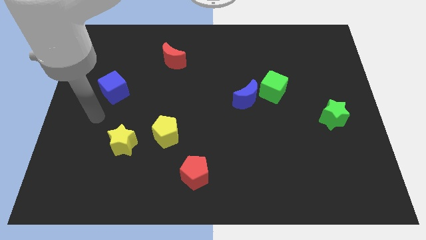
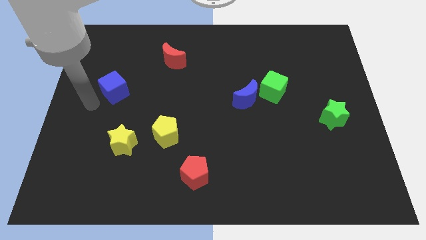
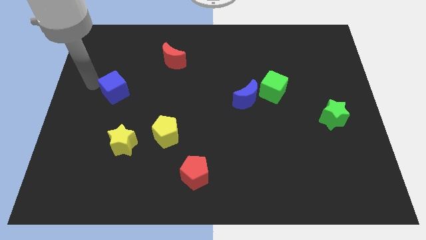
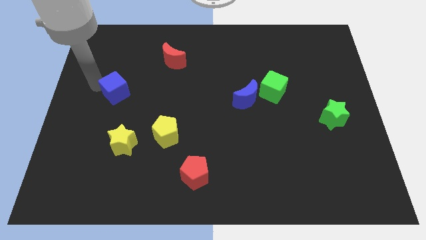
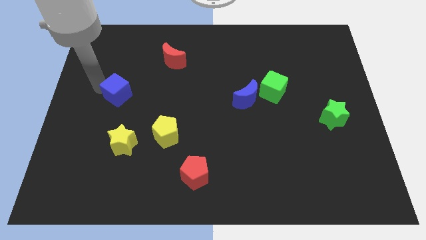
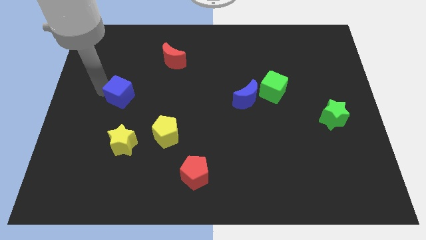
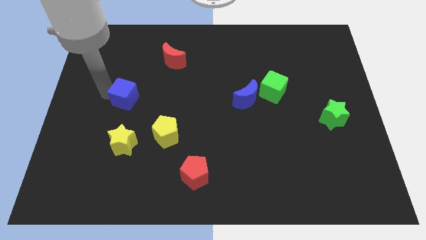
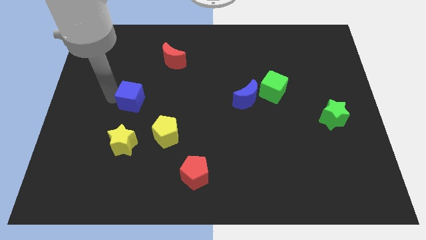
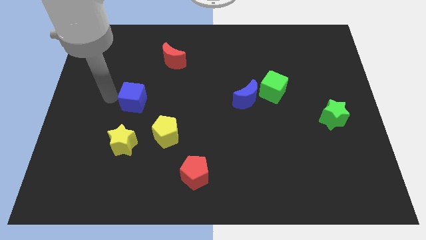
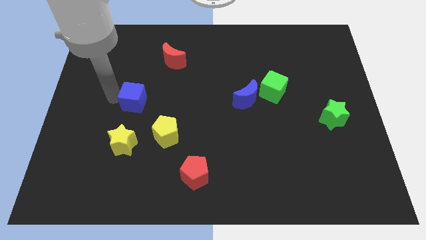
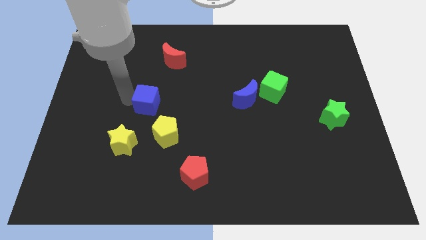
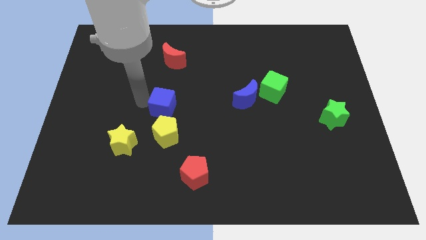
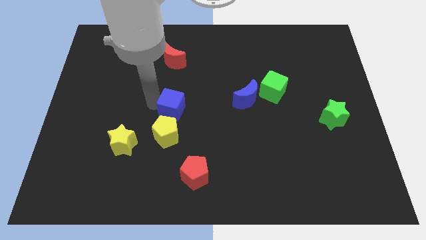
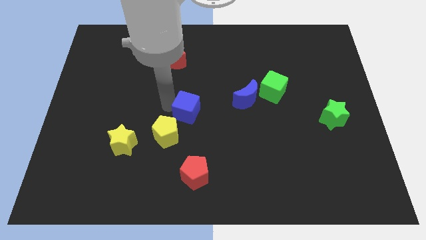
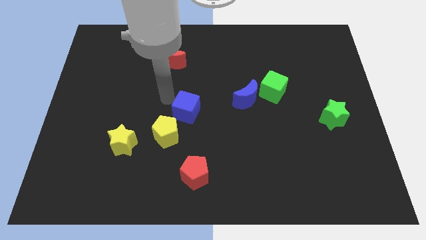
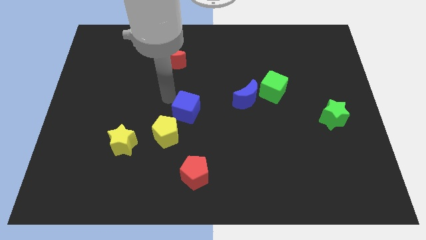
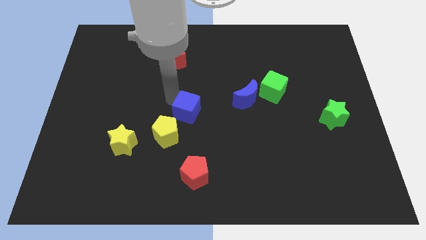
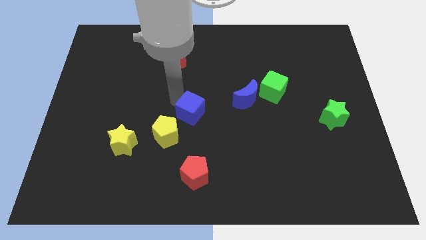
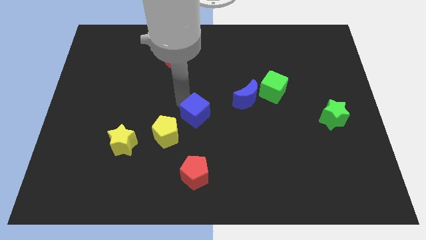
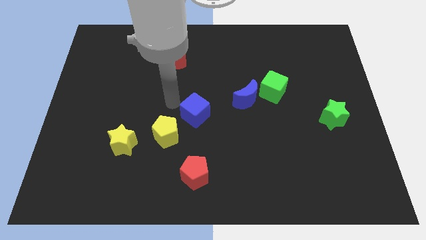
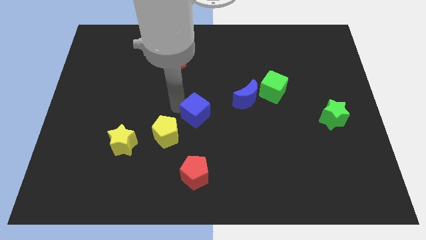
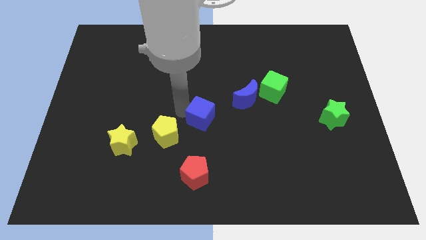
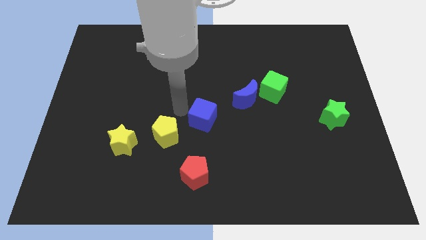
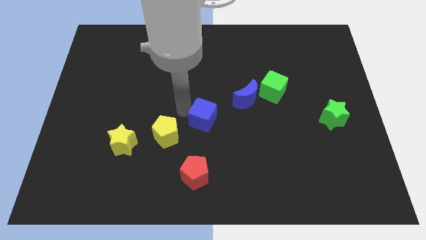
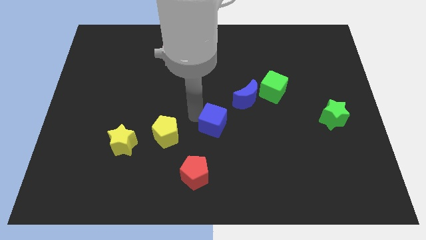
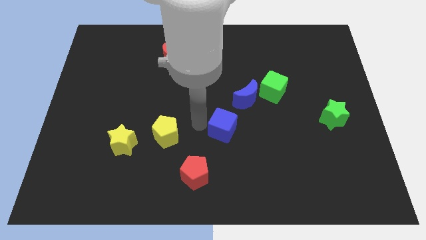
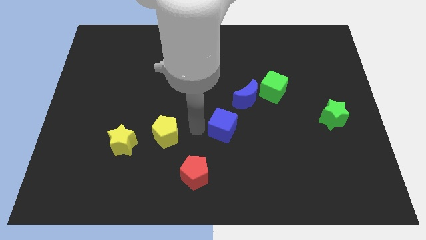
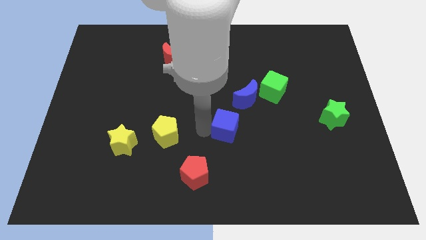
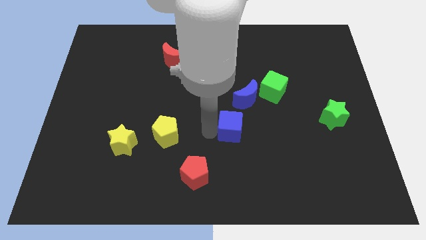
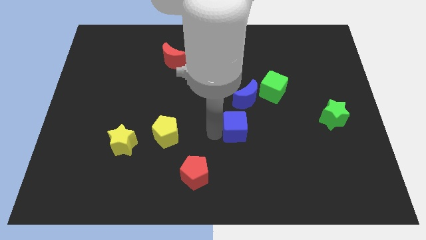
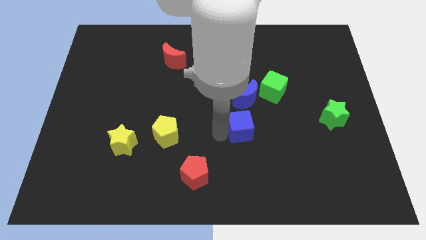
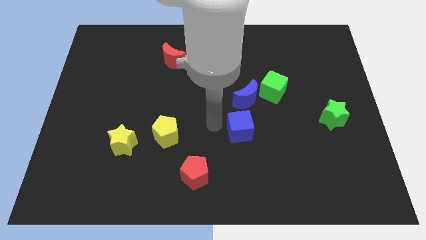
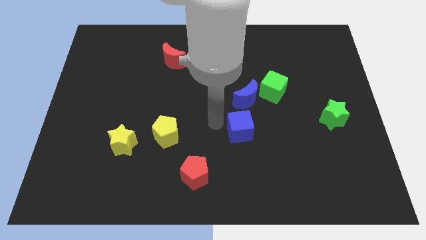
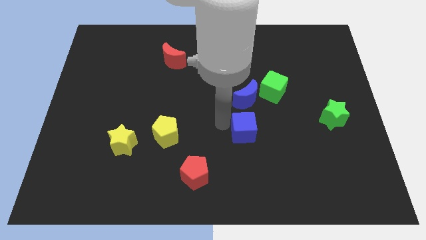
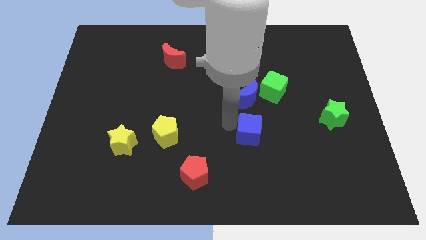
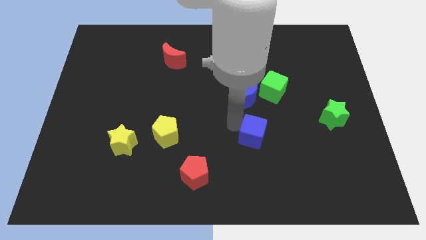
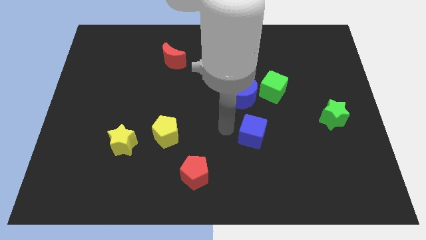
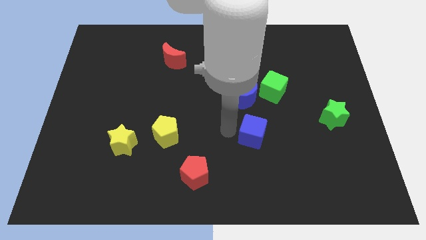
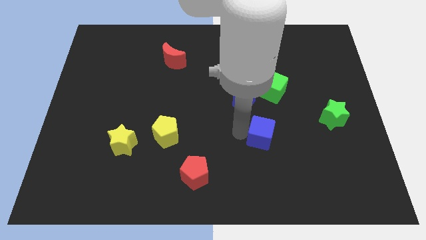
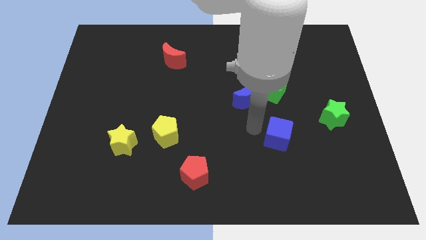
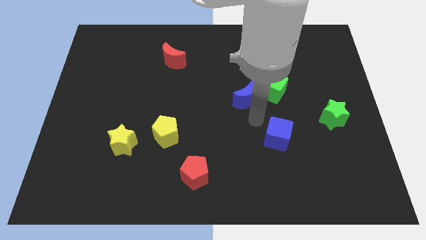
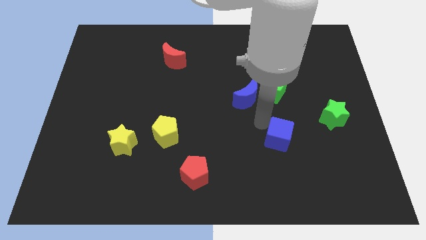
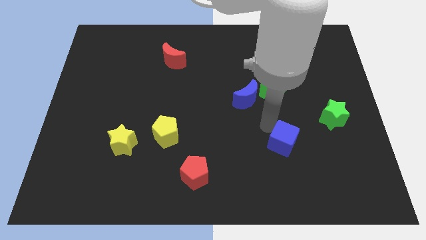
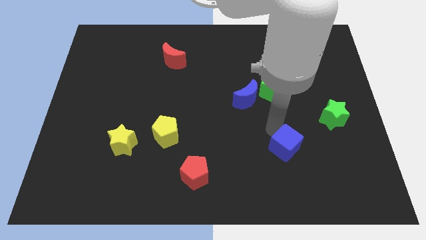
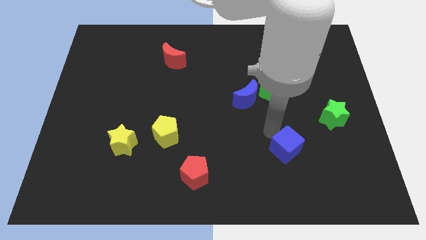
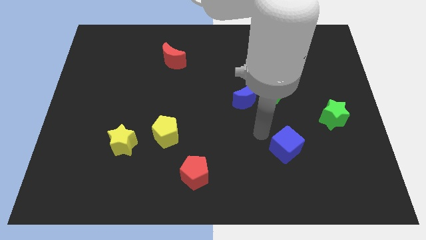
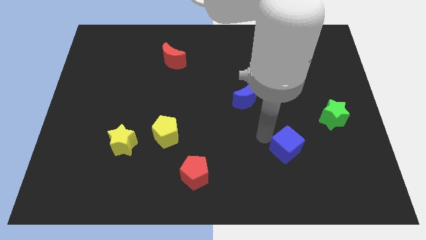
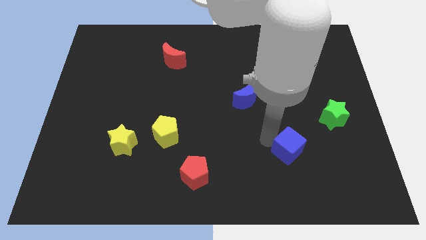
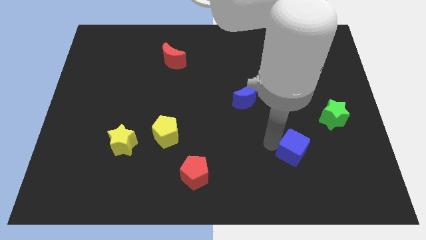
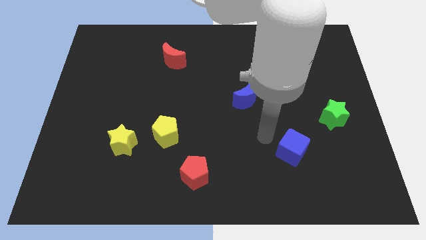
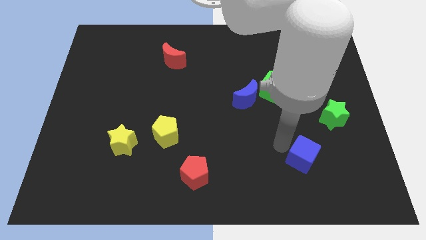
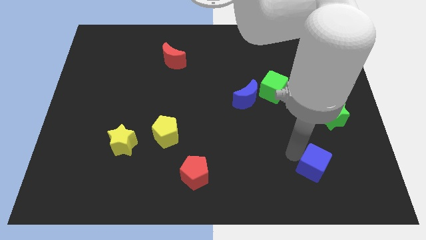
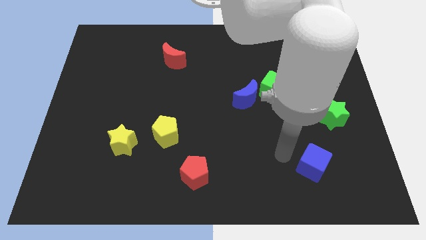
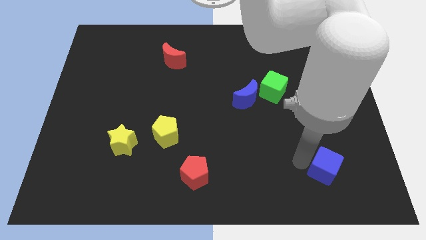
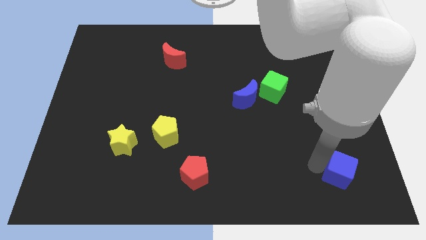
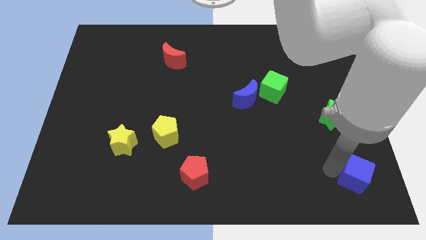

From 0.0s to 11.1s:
push the blue cube to the bottom right of the board

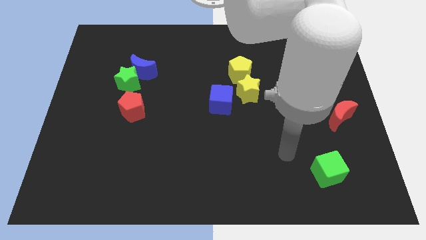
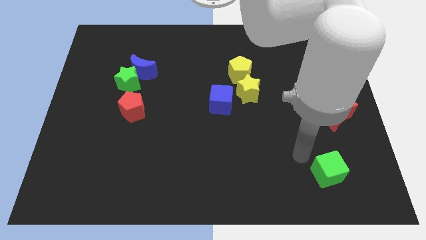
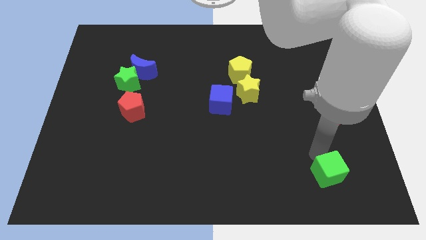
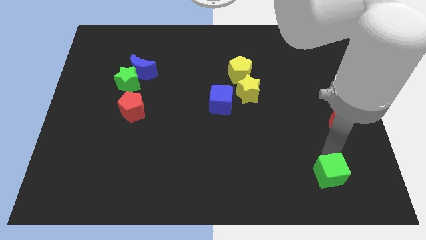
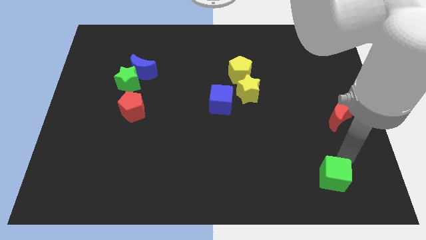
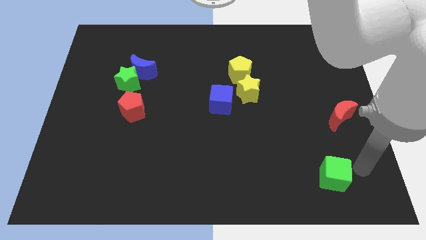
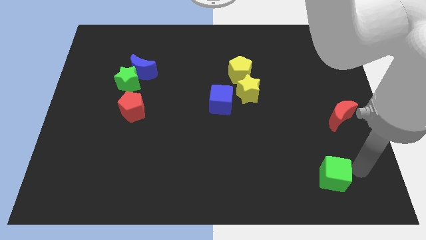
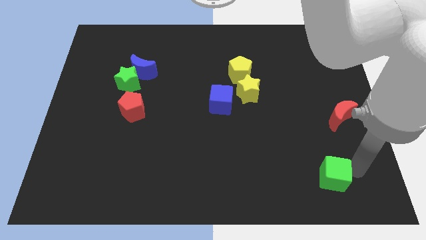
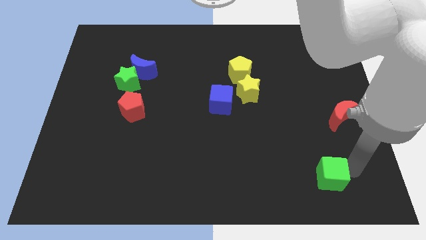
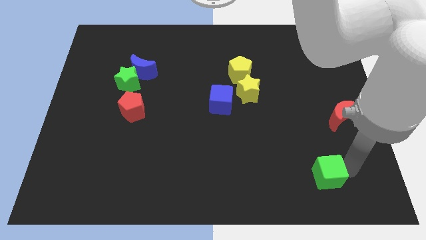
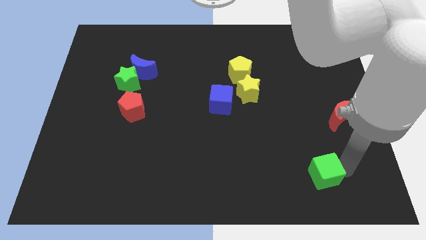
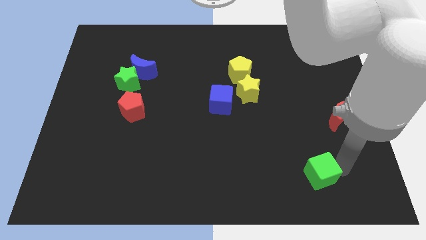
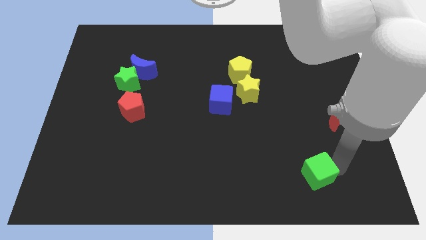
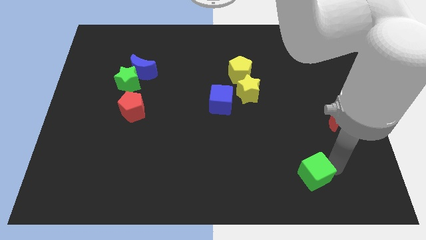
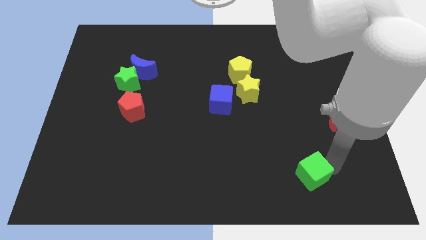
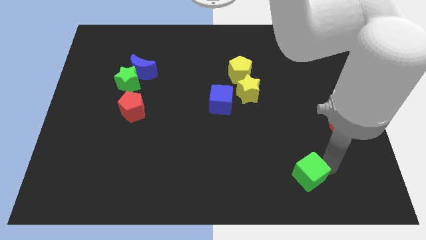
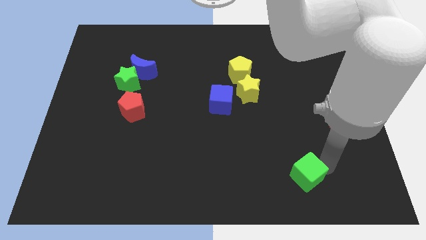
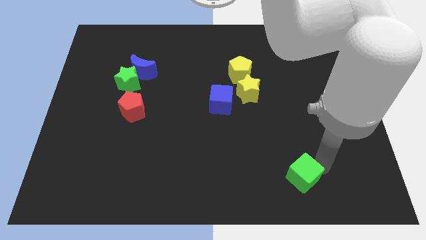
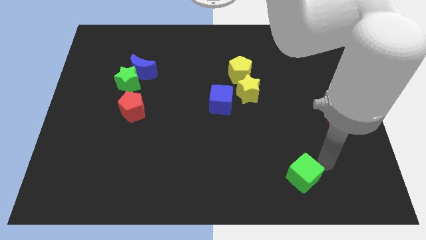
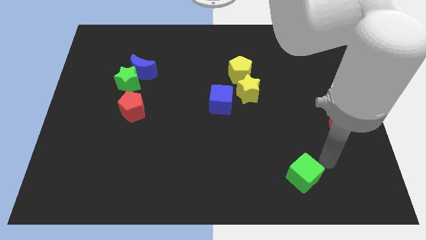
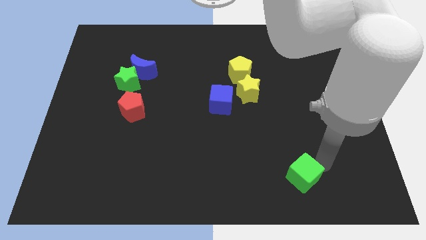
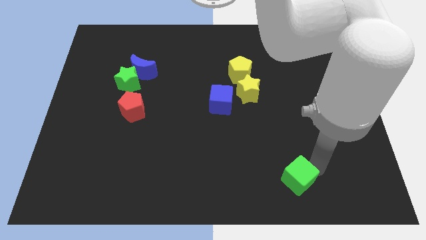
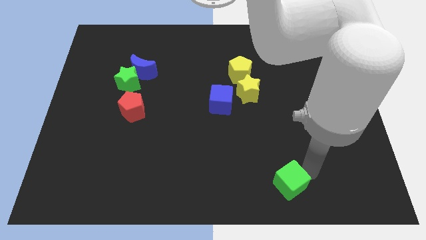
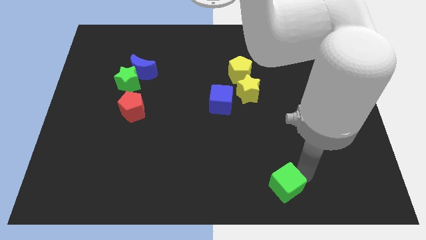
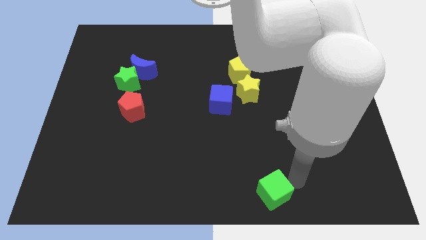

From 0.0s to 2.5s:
put the green cube to the bottom
